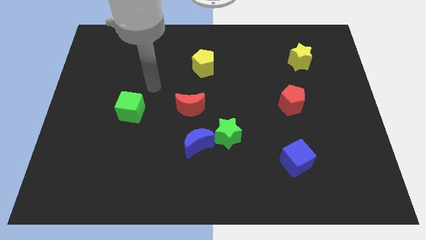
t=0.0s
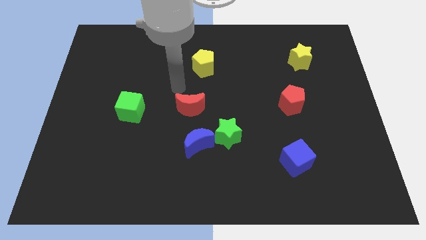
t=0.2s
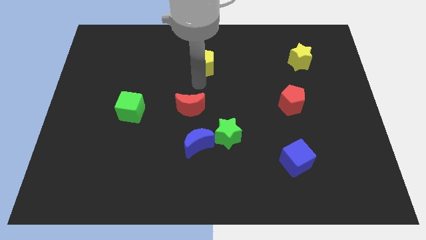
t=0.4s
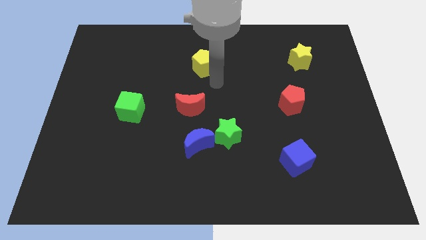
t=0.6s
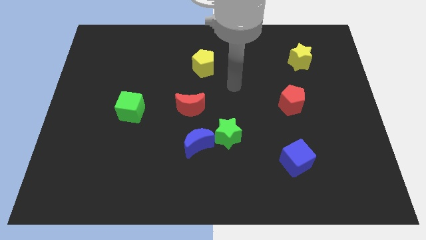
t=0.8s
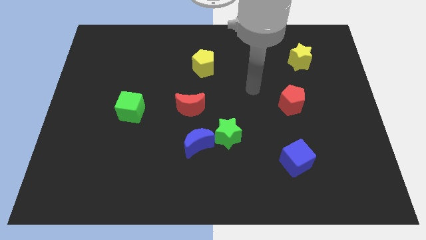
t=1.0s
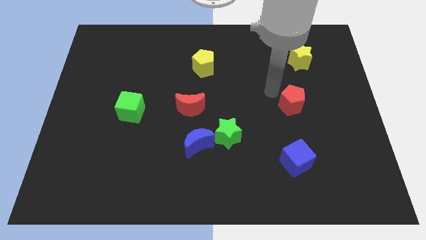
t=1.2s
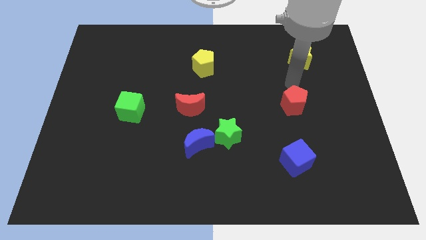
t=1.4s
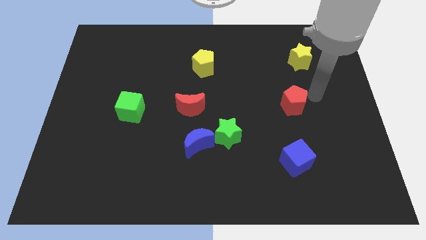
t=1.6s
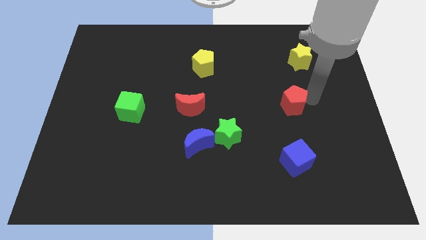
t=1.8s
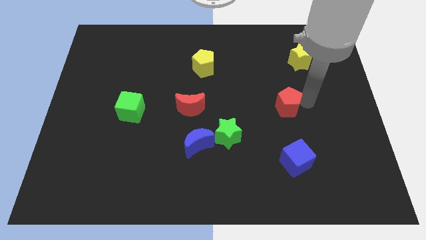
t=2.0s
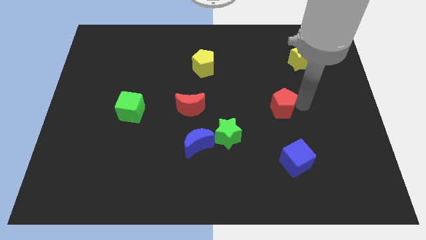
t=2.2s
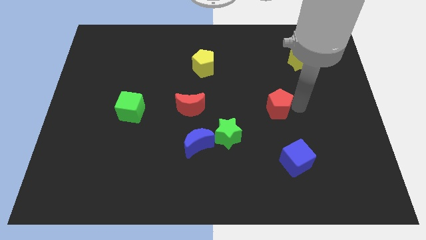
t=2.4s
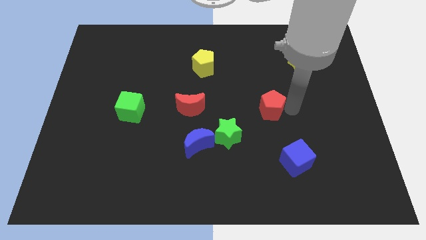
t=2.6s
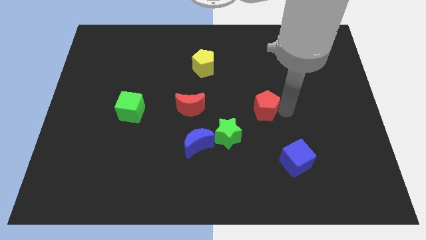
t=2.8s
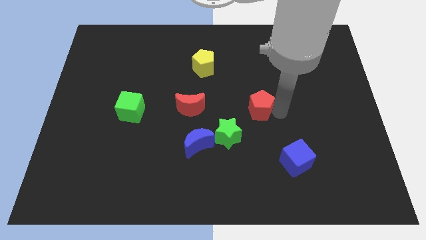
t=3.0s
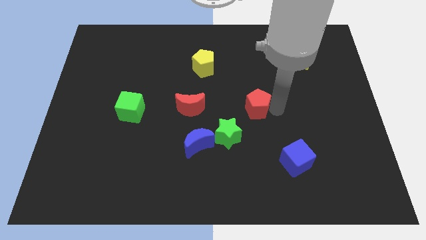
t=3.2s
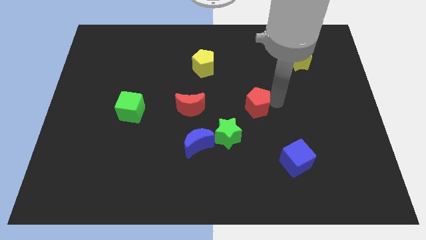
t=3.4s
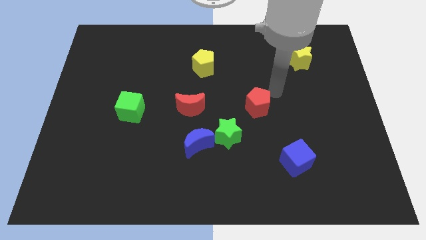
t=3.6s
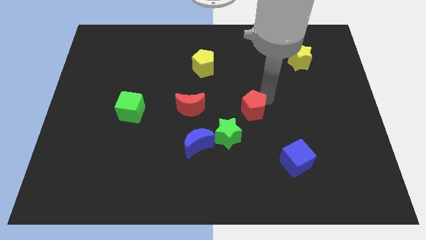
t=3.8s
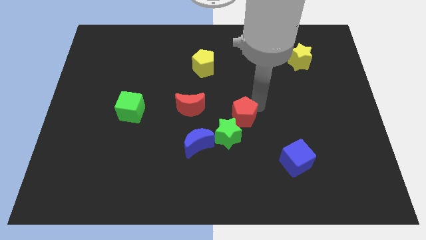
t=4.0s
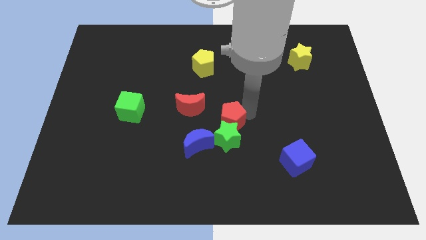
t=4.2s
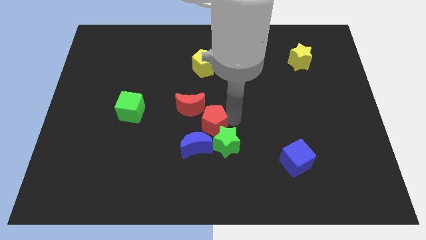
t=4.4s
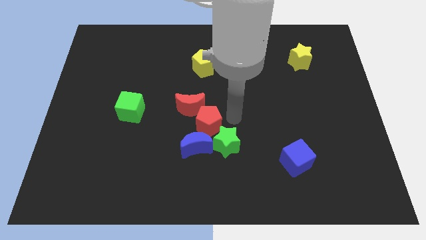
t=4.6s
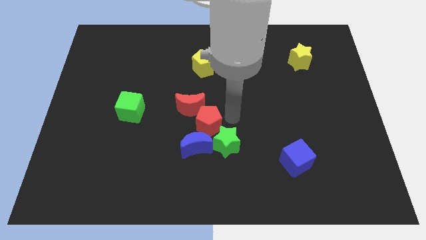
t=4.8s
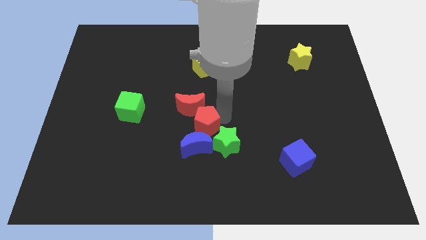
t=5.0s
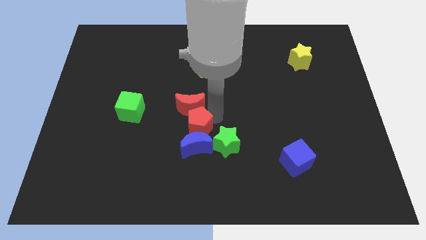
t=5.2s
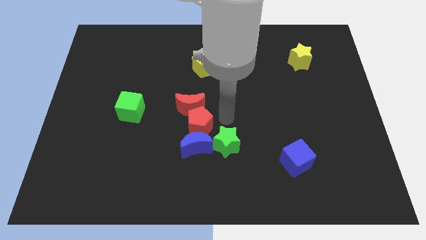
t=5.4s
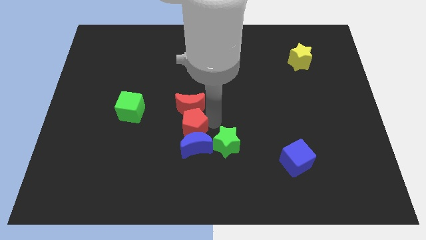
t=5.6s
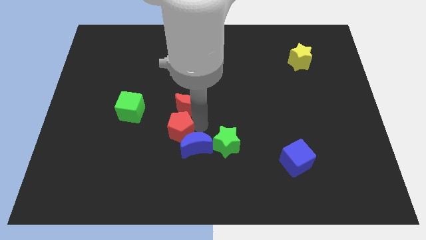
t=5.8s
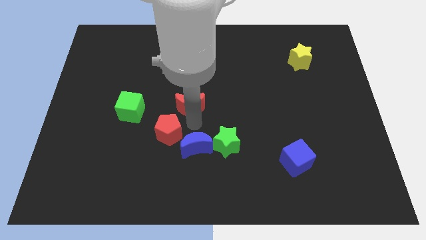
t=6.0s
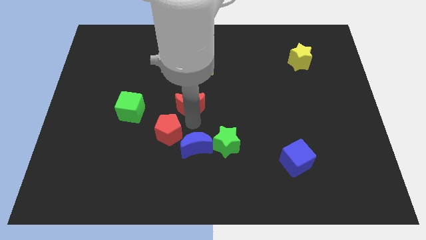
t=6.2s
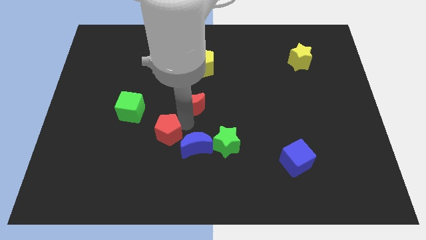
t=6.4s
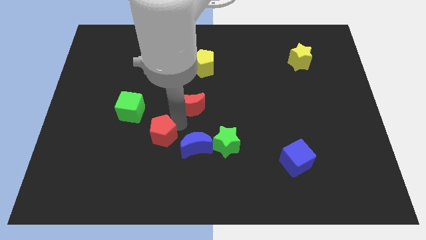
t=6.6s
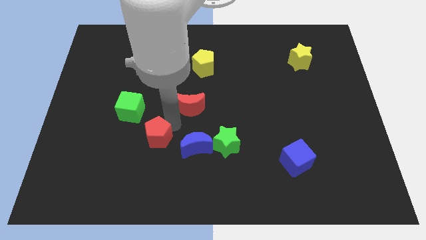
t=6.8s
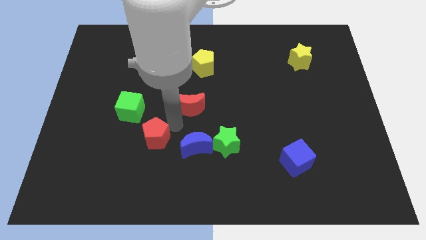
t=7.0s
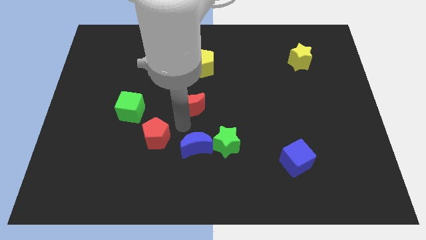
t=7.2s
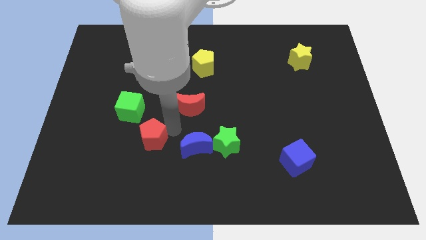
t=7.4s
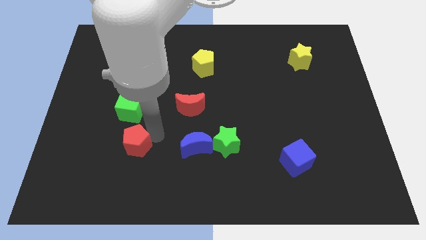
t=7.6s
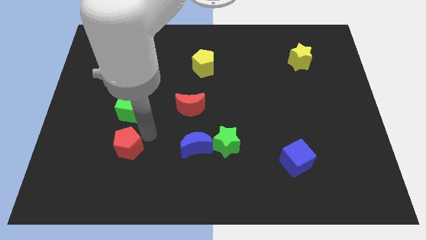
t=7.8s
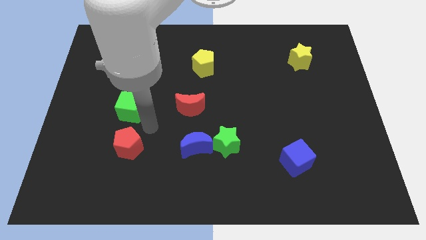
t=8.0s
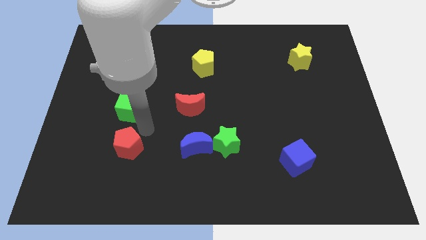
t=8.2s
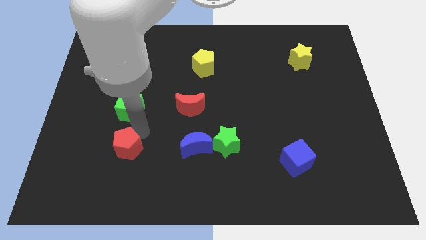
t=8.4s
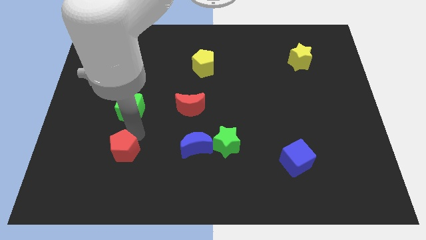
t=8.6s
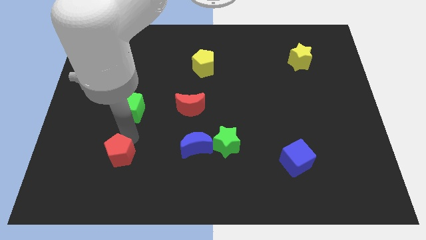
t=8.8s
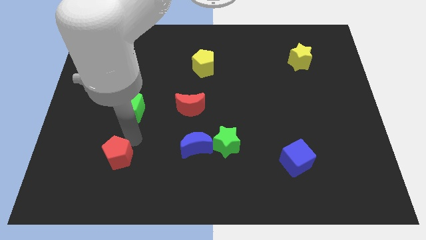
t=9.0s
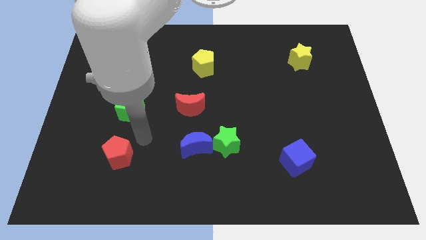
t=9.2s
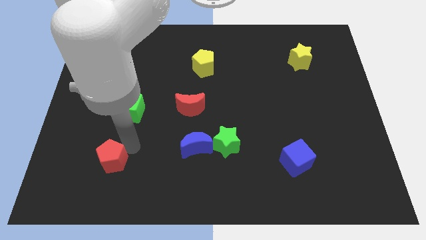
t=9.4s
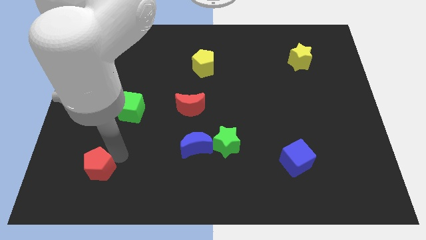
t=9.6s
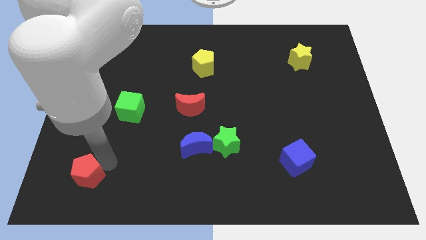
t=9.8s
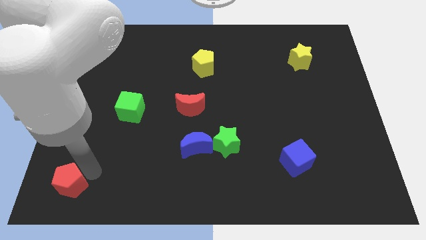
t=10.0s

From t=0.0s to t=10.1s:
move the red pentagon to the lower left corner

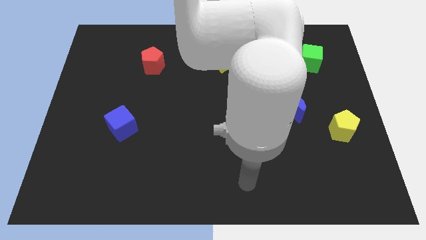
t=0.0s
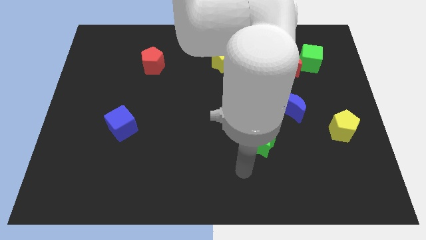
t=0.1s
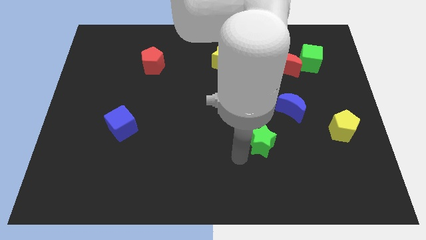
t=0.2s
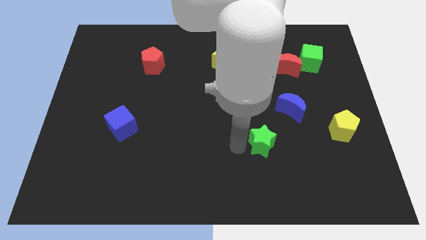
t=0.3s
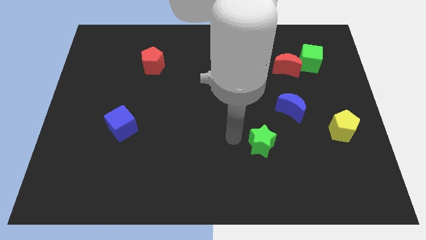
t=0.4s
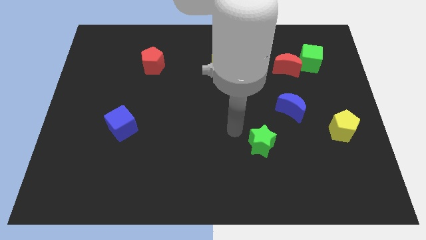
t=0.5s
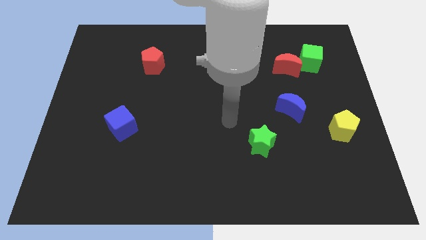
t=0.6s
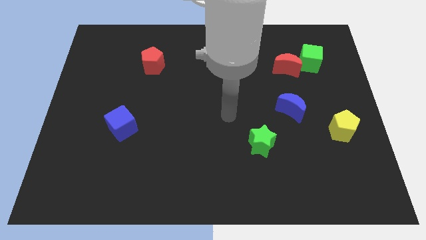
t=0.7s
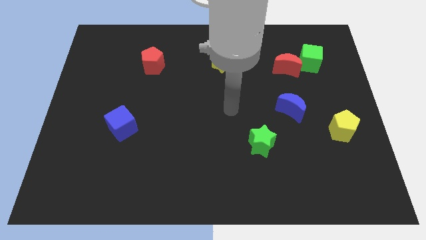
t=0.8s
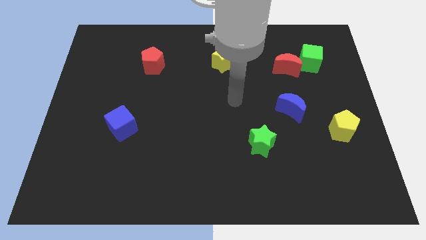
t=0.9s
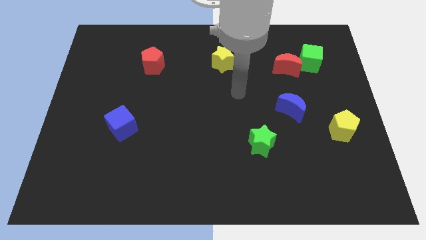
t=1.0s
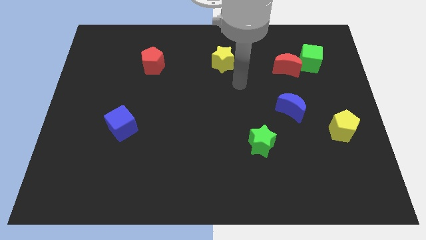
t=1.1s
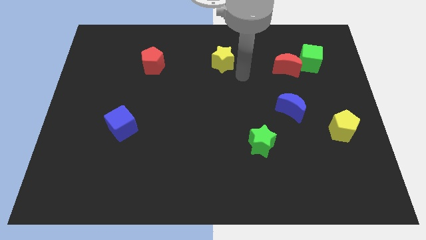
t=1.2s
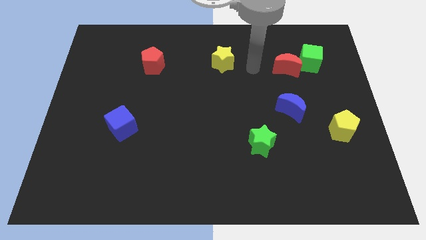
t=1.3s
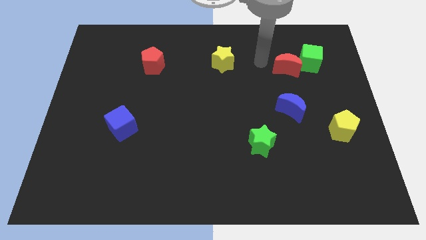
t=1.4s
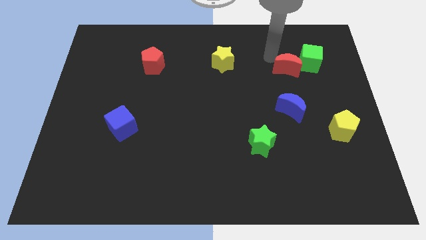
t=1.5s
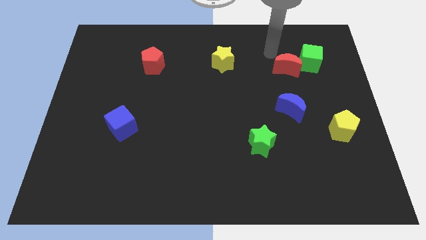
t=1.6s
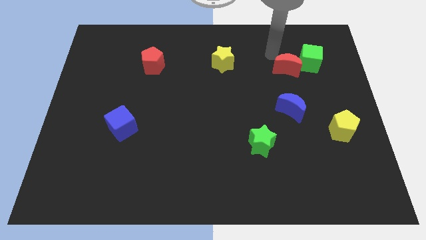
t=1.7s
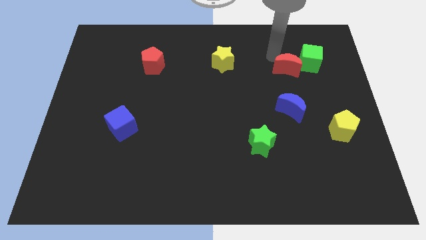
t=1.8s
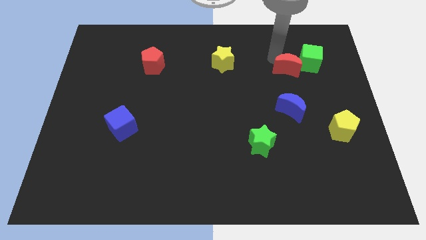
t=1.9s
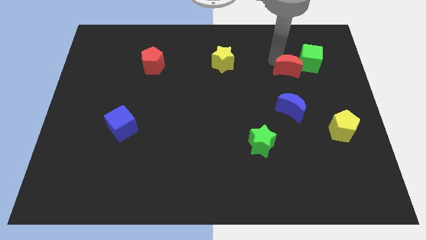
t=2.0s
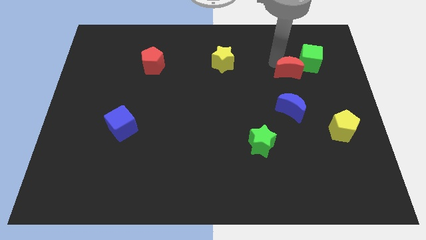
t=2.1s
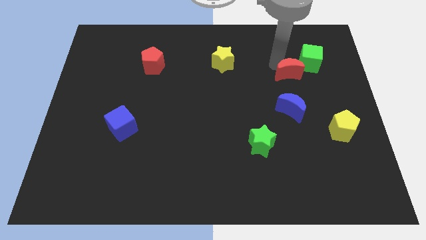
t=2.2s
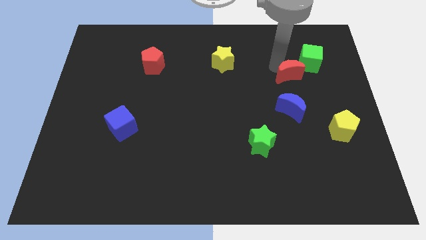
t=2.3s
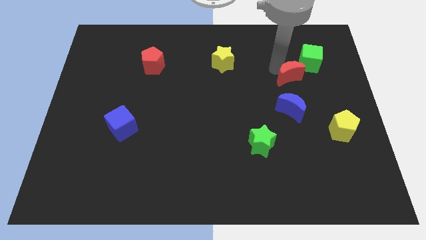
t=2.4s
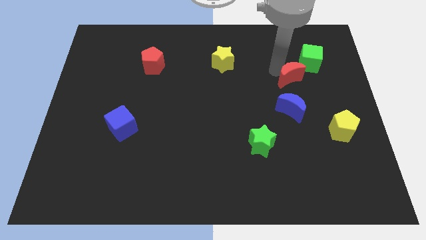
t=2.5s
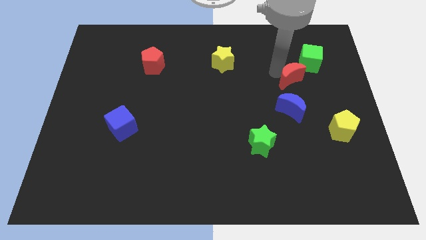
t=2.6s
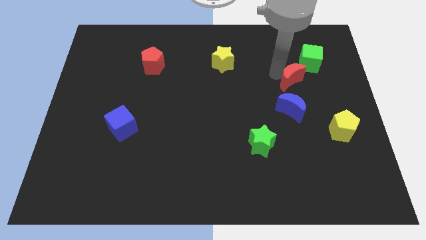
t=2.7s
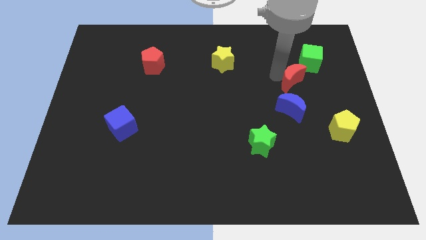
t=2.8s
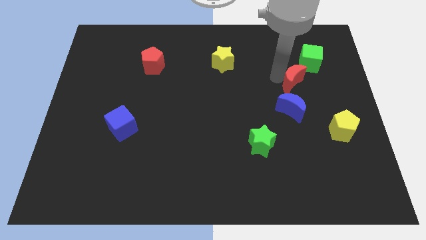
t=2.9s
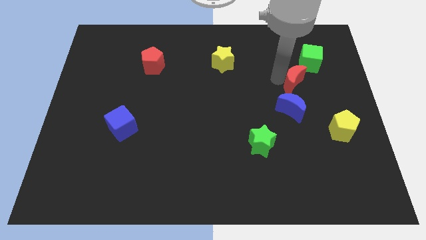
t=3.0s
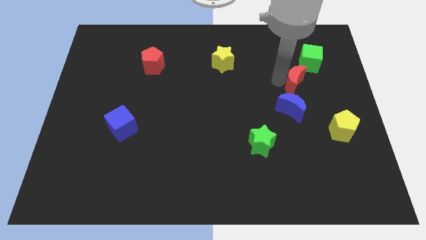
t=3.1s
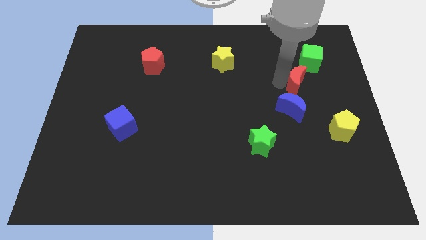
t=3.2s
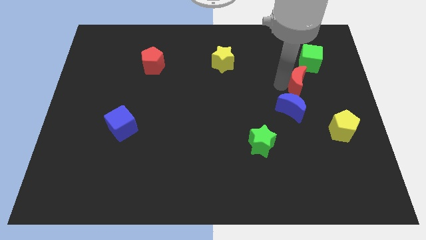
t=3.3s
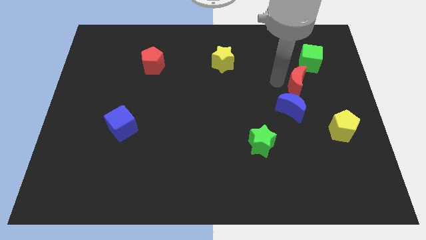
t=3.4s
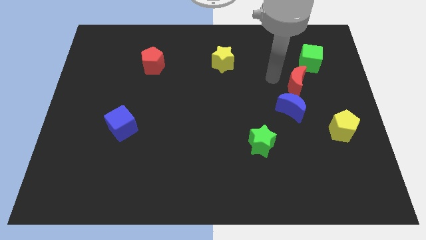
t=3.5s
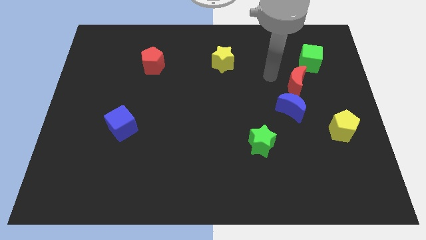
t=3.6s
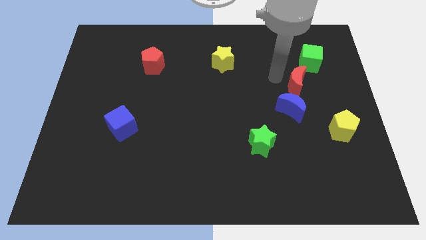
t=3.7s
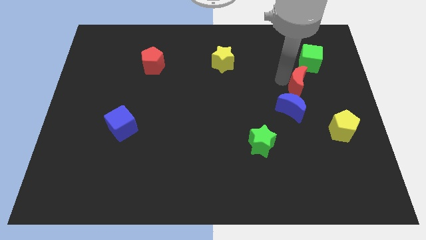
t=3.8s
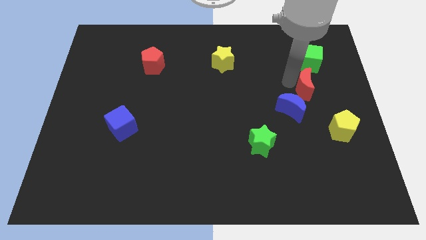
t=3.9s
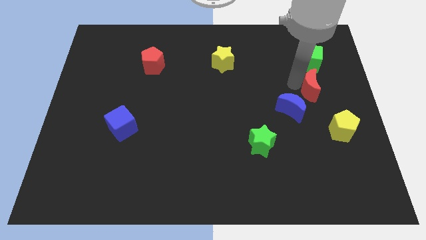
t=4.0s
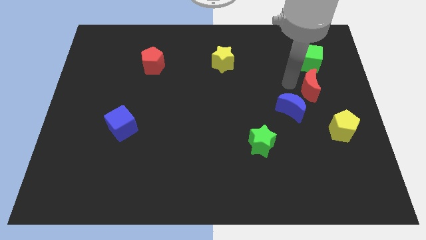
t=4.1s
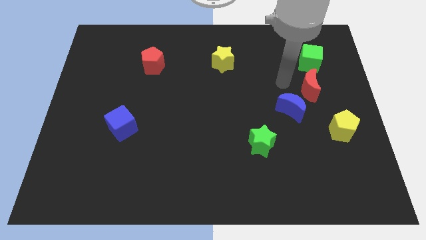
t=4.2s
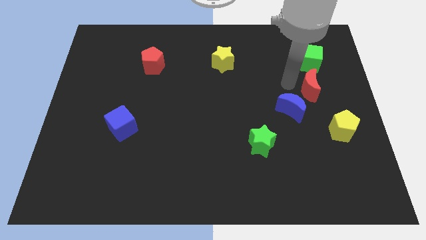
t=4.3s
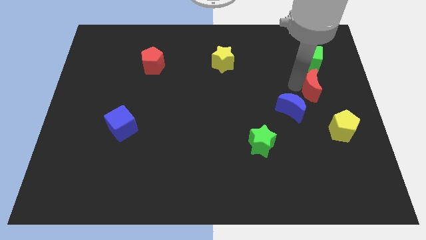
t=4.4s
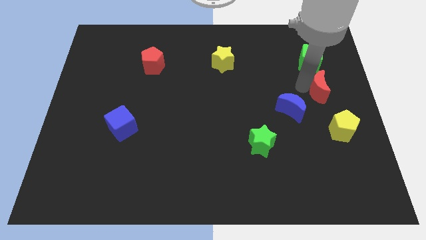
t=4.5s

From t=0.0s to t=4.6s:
put the red moon to the center right
